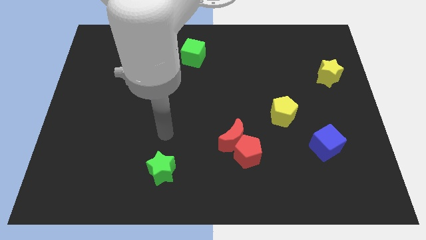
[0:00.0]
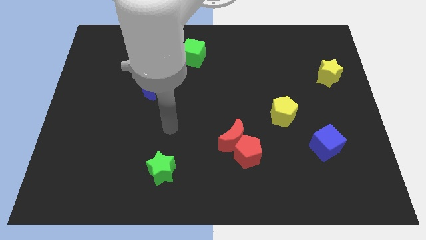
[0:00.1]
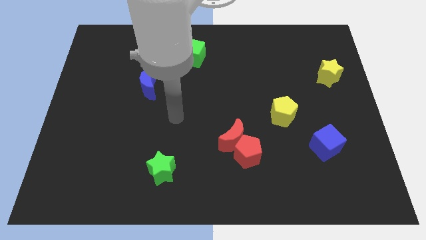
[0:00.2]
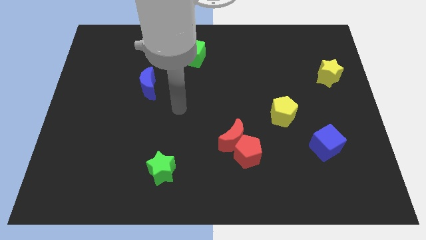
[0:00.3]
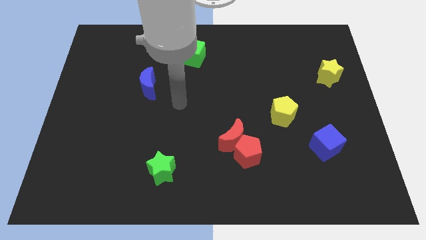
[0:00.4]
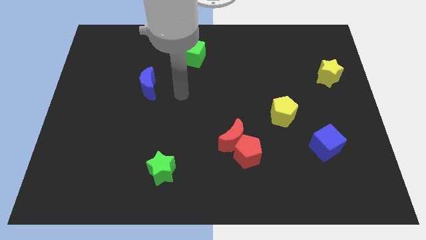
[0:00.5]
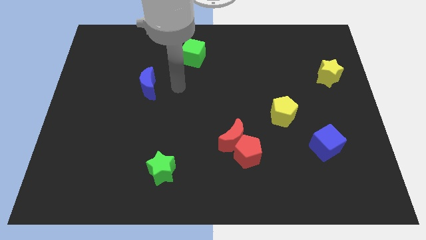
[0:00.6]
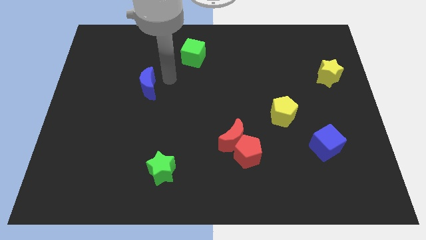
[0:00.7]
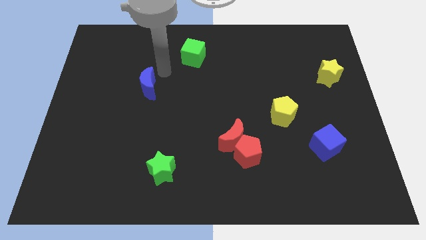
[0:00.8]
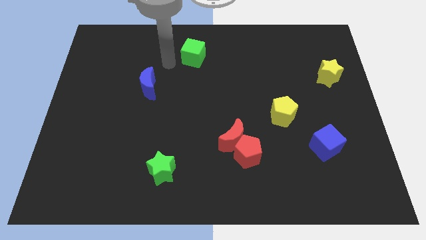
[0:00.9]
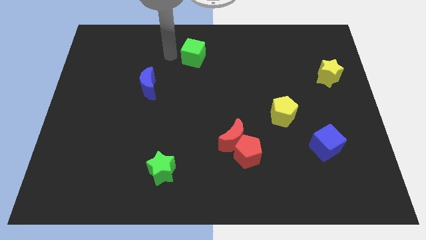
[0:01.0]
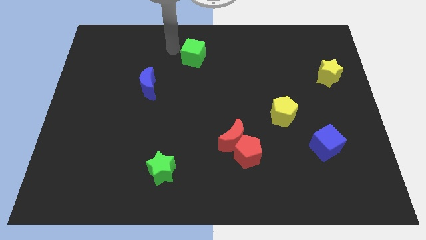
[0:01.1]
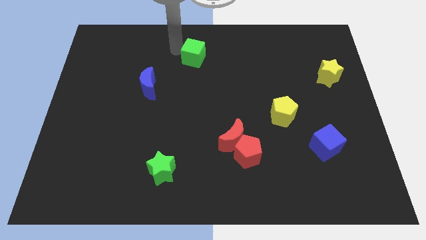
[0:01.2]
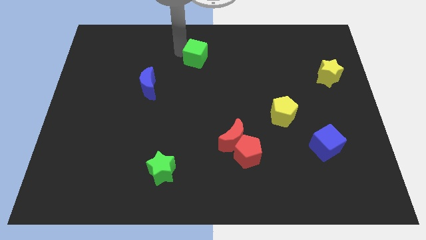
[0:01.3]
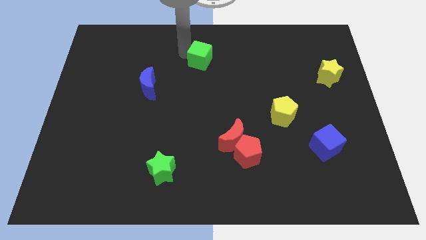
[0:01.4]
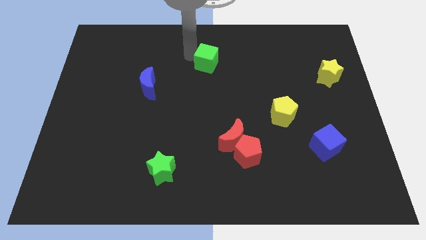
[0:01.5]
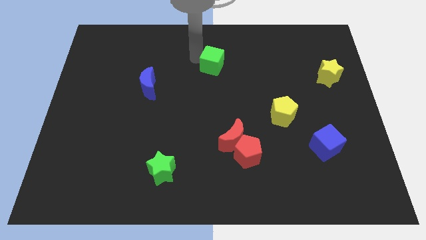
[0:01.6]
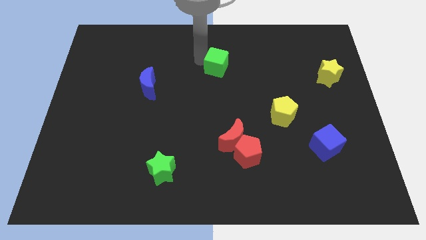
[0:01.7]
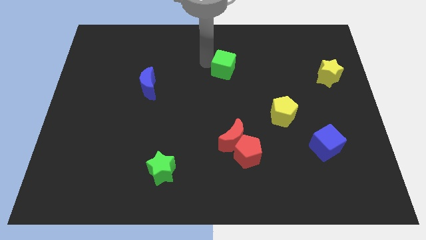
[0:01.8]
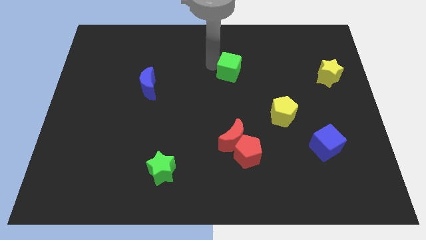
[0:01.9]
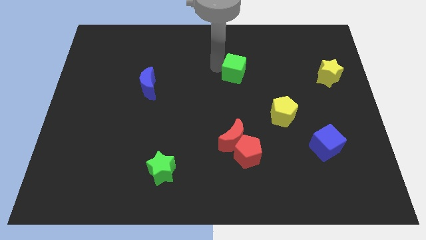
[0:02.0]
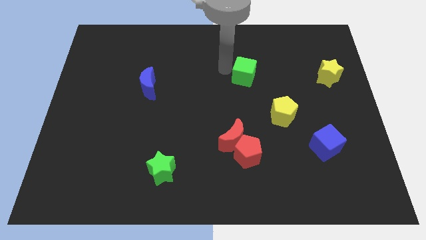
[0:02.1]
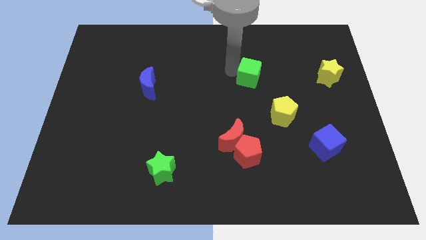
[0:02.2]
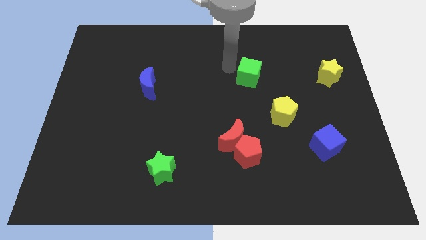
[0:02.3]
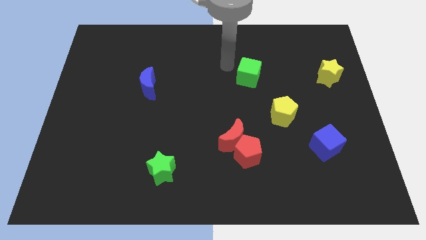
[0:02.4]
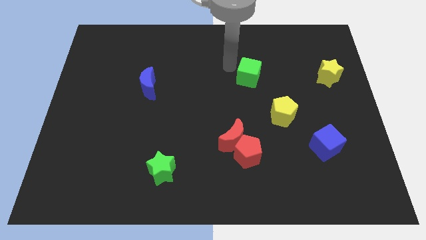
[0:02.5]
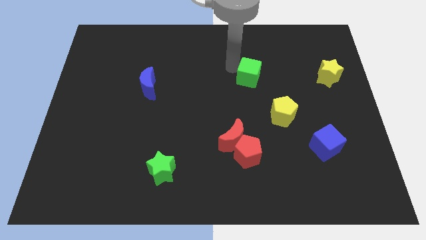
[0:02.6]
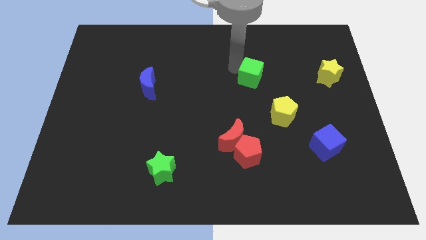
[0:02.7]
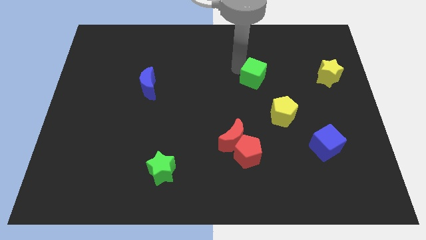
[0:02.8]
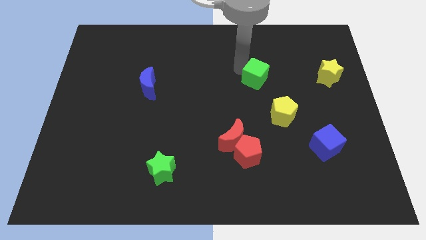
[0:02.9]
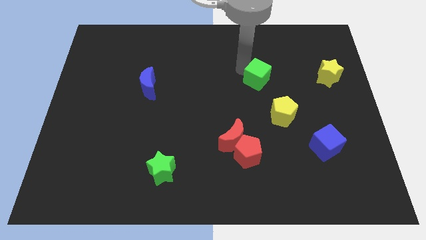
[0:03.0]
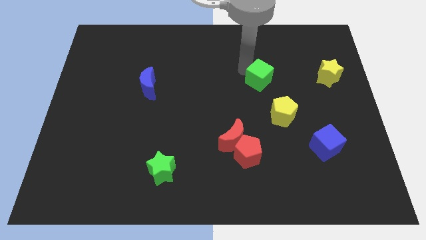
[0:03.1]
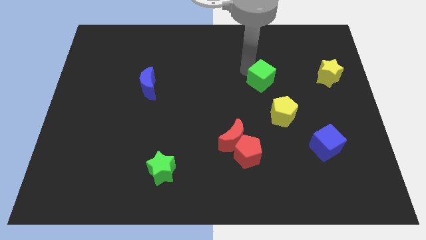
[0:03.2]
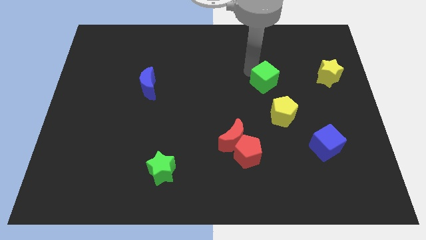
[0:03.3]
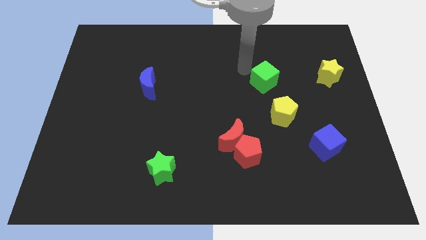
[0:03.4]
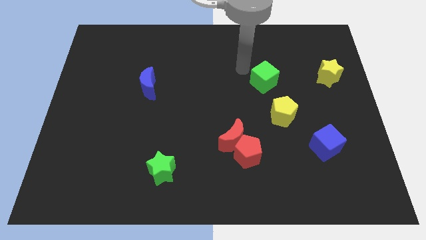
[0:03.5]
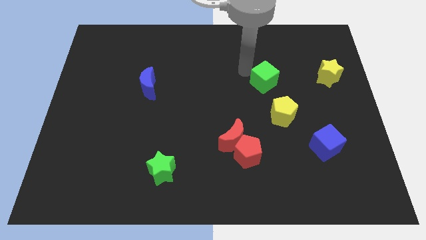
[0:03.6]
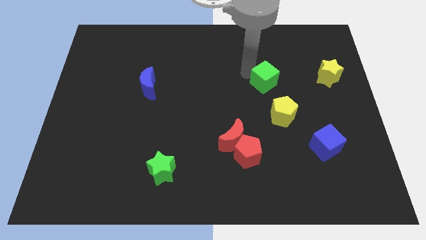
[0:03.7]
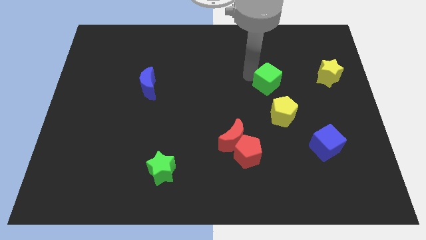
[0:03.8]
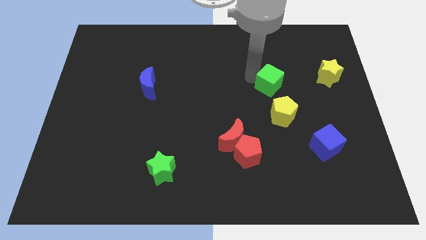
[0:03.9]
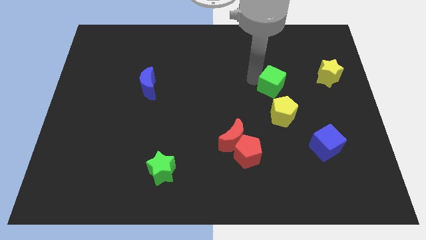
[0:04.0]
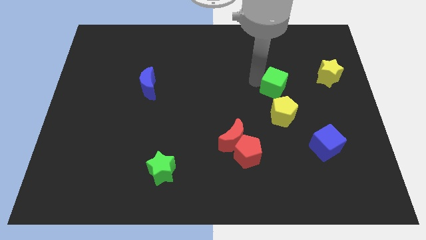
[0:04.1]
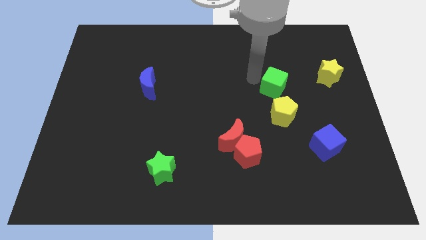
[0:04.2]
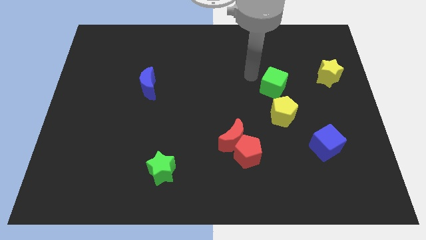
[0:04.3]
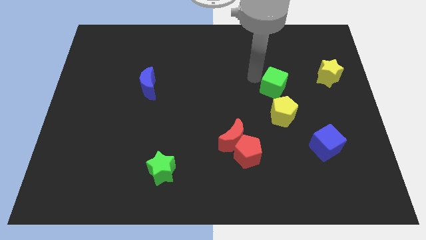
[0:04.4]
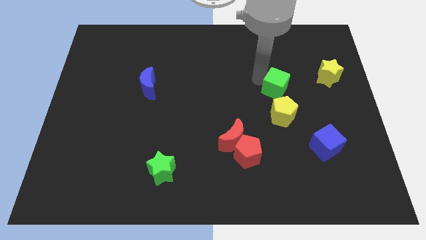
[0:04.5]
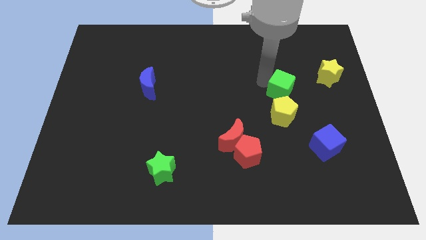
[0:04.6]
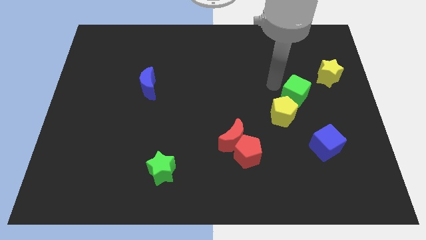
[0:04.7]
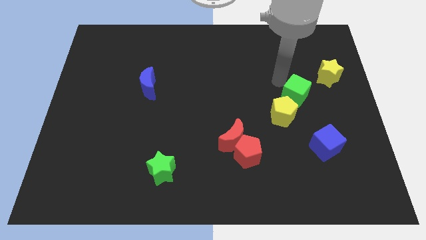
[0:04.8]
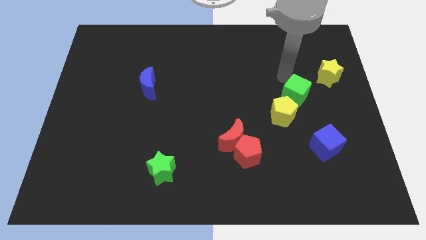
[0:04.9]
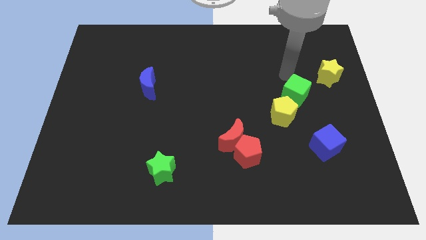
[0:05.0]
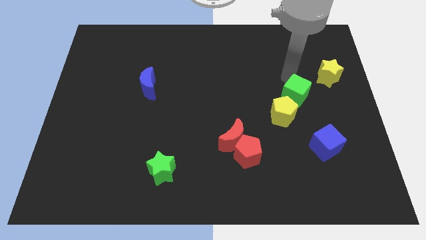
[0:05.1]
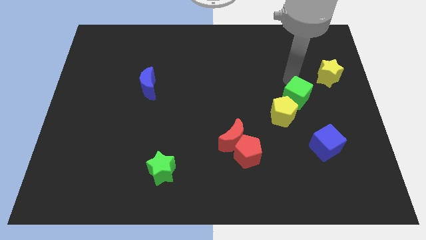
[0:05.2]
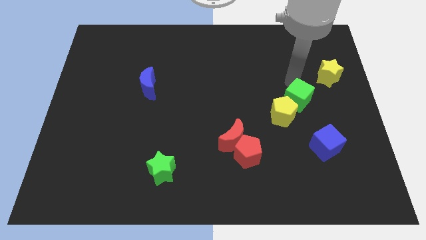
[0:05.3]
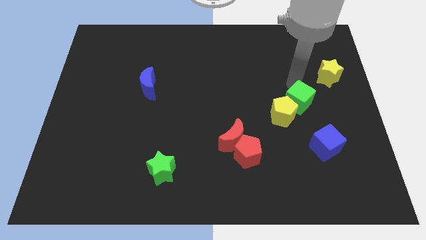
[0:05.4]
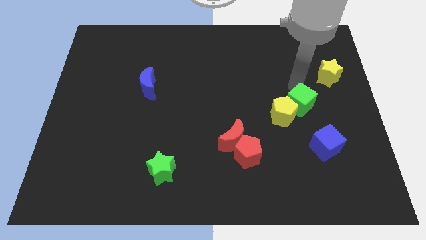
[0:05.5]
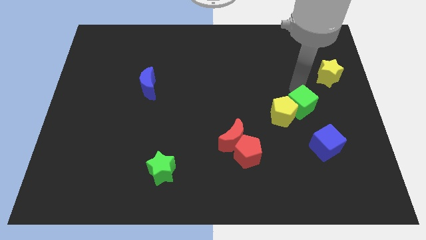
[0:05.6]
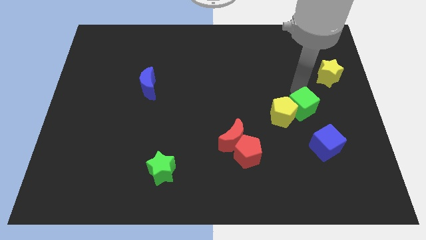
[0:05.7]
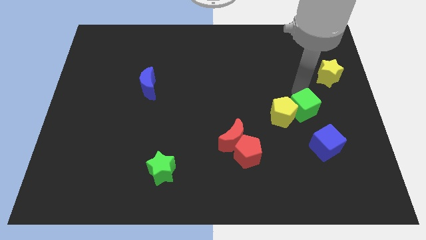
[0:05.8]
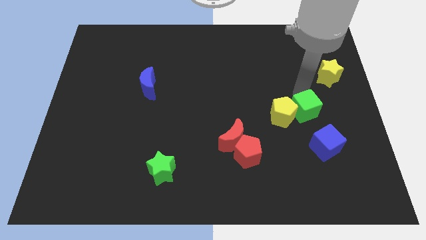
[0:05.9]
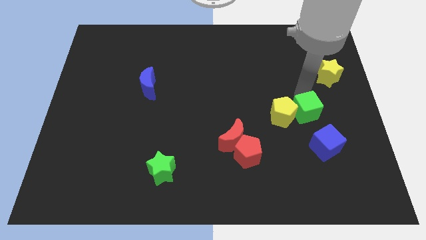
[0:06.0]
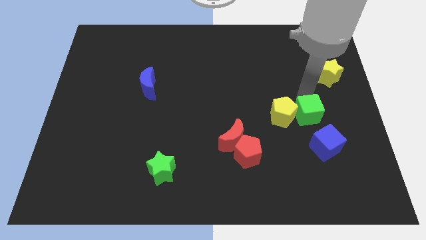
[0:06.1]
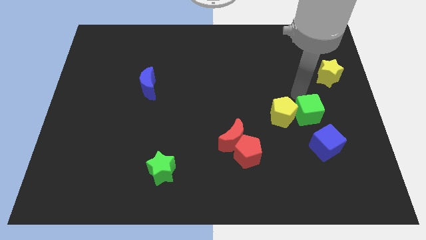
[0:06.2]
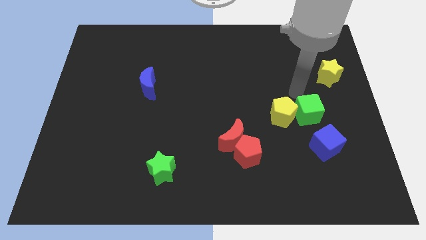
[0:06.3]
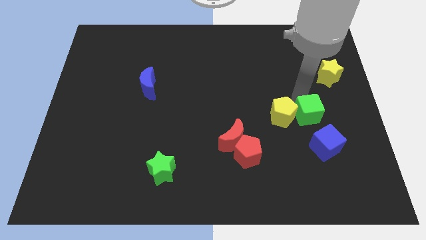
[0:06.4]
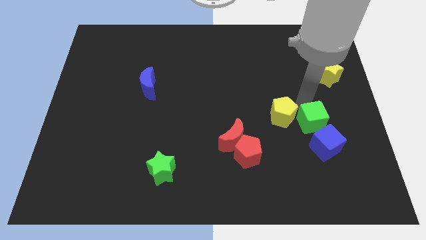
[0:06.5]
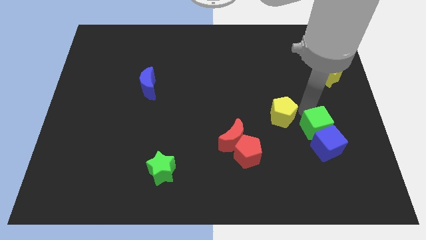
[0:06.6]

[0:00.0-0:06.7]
put the green cube next to the blue cube

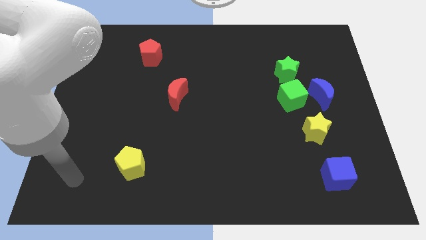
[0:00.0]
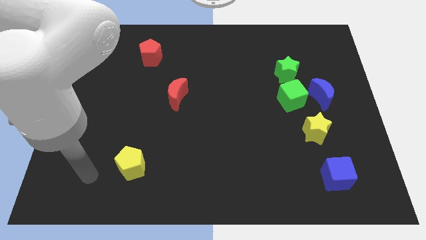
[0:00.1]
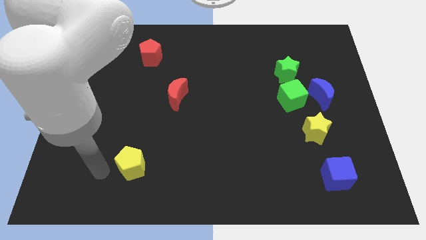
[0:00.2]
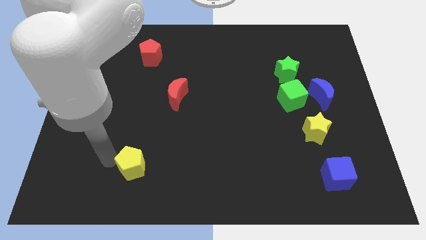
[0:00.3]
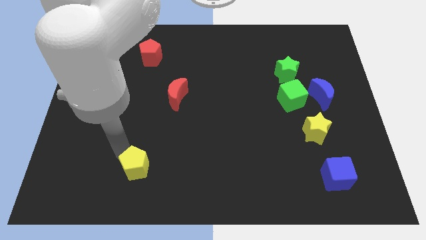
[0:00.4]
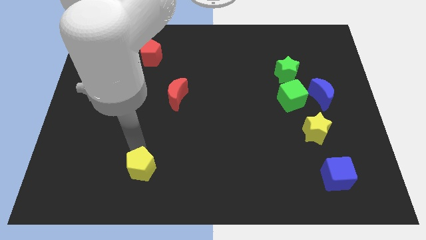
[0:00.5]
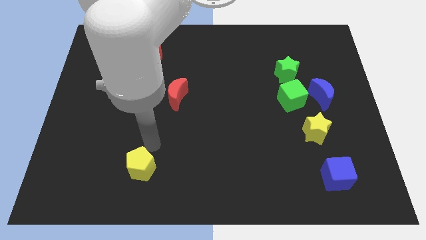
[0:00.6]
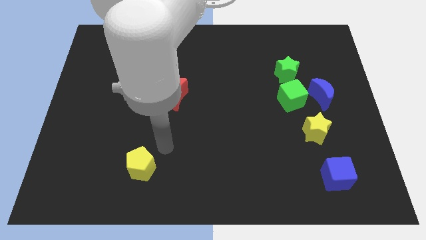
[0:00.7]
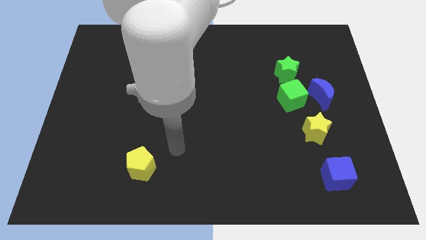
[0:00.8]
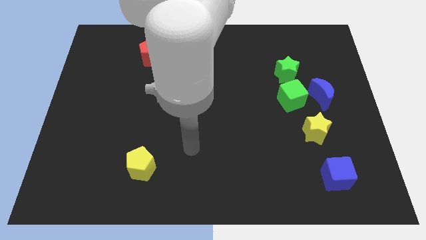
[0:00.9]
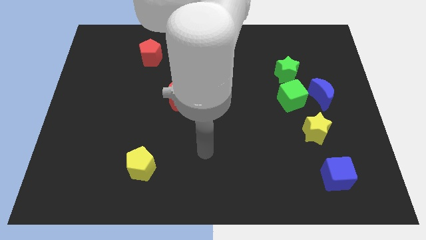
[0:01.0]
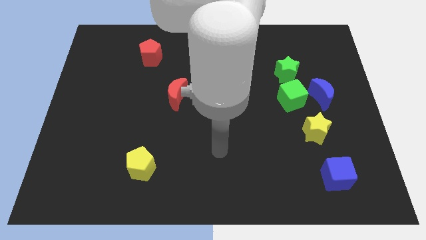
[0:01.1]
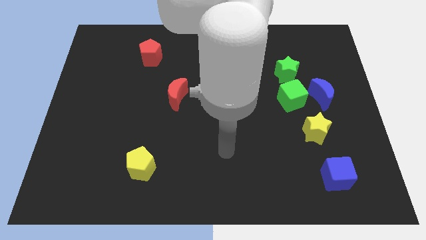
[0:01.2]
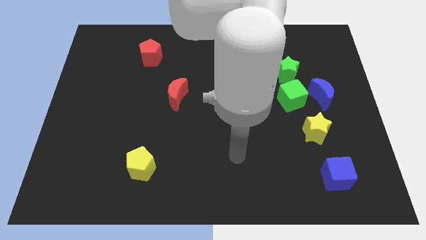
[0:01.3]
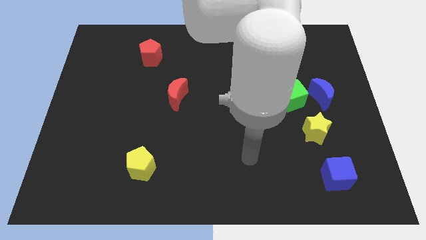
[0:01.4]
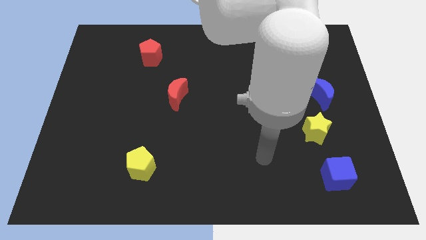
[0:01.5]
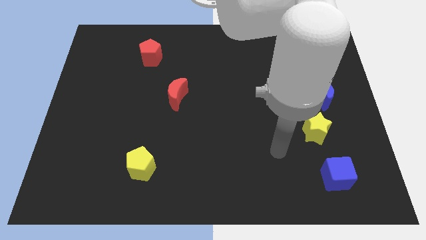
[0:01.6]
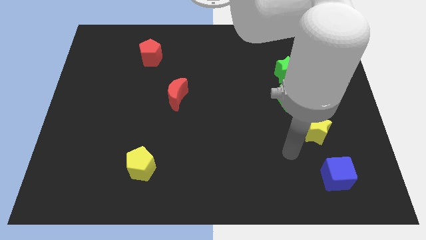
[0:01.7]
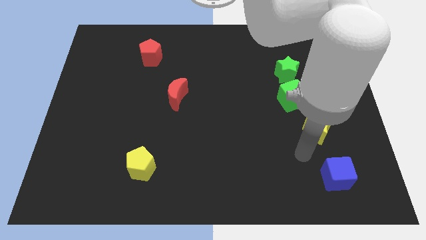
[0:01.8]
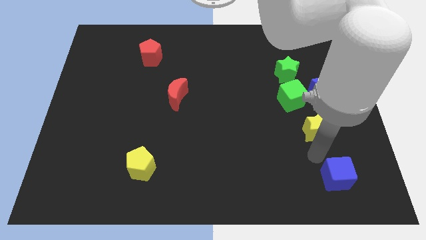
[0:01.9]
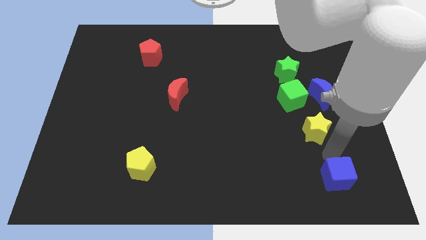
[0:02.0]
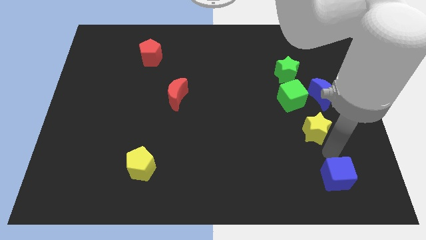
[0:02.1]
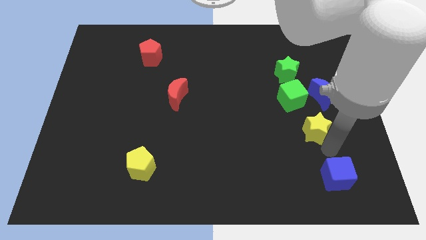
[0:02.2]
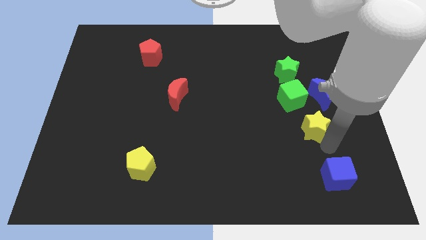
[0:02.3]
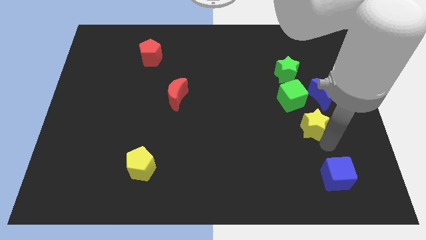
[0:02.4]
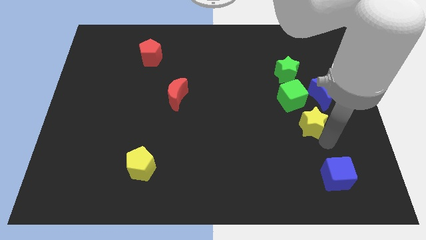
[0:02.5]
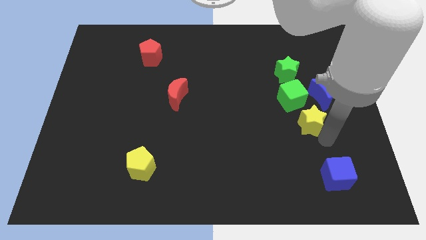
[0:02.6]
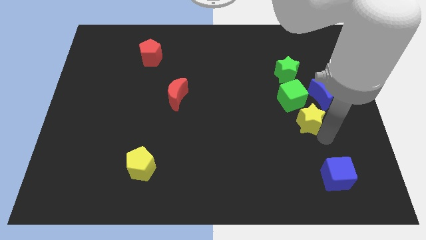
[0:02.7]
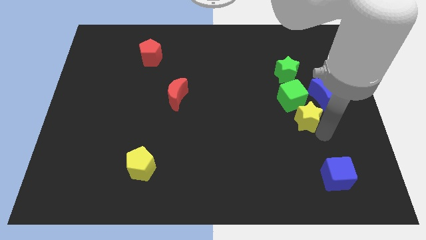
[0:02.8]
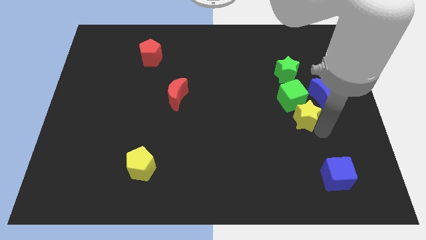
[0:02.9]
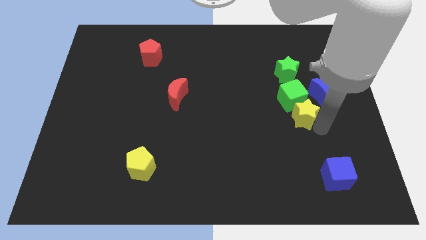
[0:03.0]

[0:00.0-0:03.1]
move the yellow star towards the green cube
